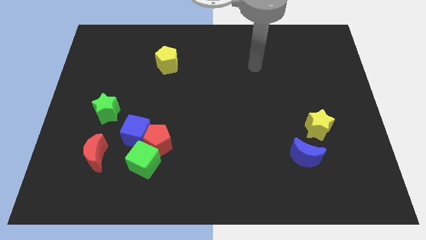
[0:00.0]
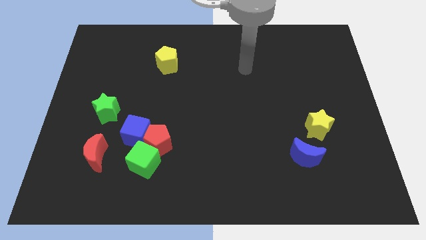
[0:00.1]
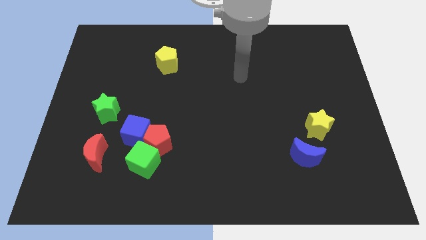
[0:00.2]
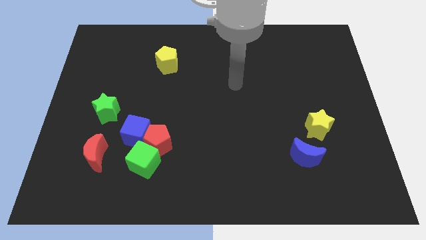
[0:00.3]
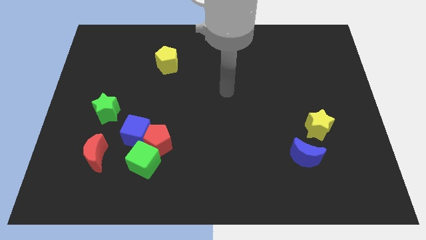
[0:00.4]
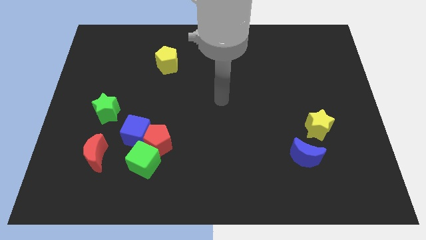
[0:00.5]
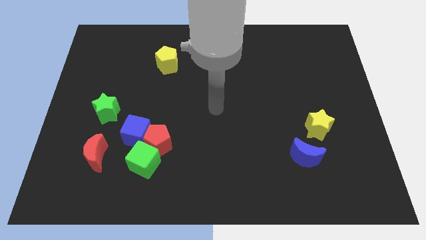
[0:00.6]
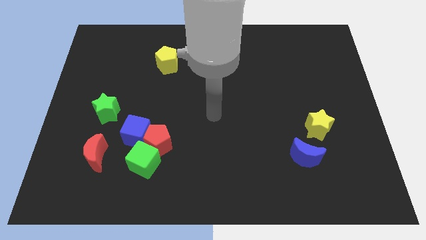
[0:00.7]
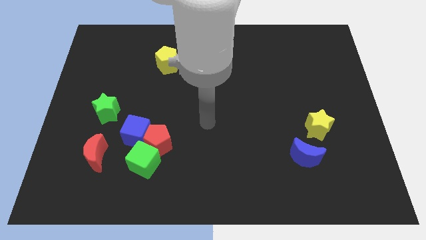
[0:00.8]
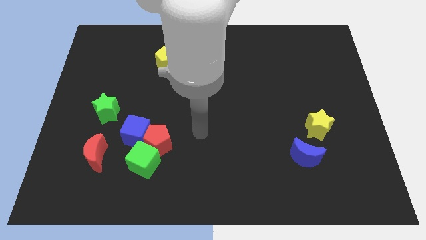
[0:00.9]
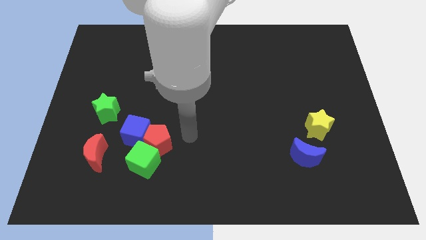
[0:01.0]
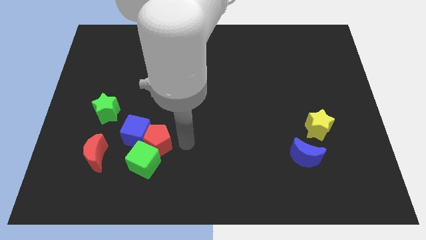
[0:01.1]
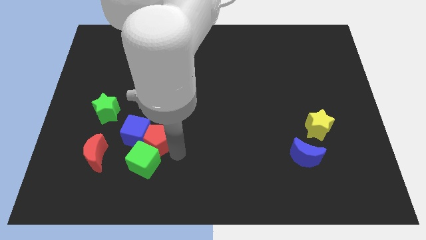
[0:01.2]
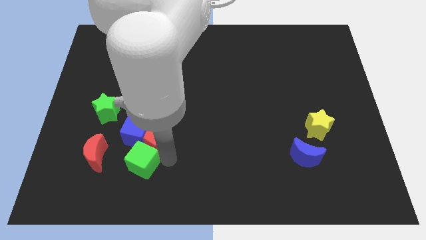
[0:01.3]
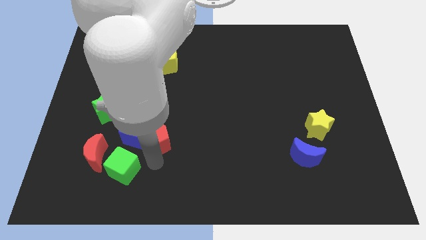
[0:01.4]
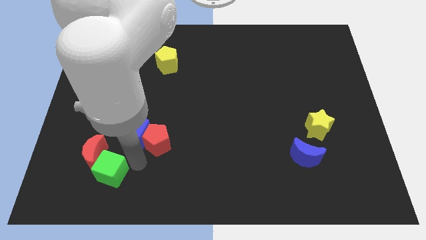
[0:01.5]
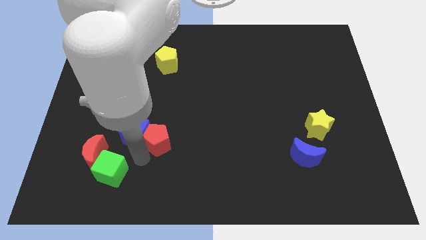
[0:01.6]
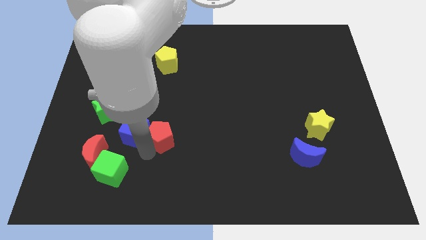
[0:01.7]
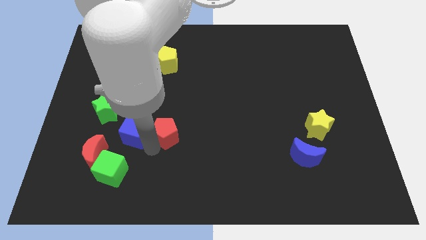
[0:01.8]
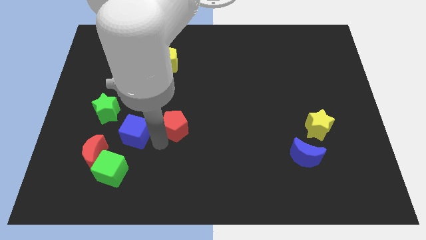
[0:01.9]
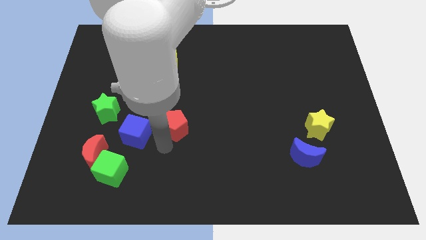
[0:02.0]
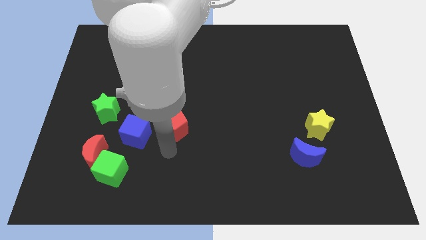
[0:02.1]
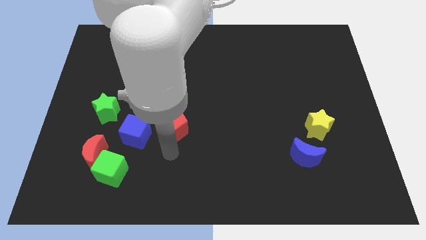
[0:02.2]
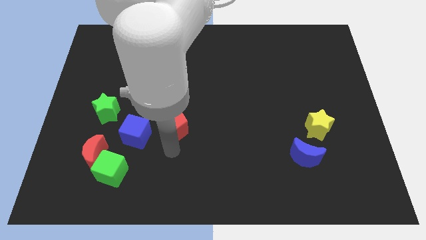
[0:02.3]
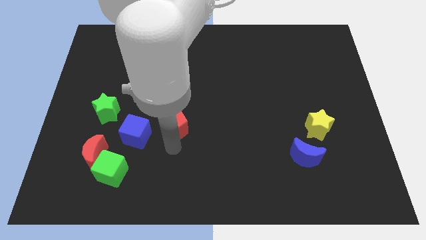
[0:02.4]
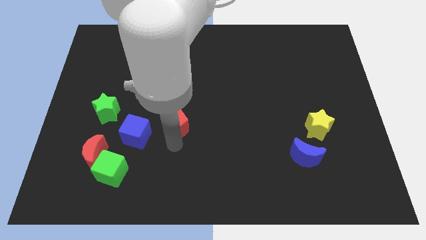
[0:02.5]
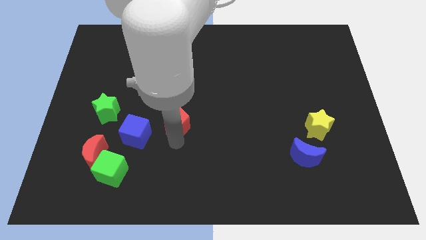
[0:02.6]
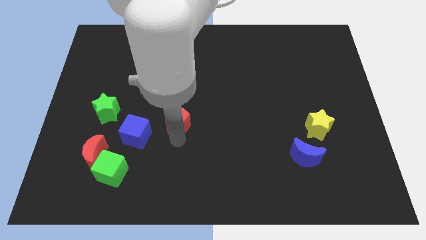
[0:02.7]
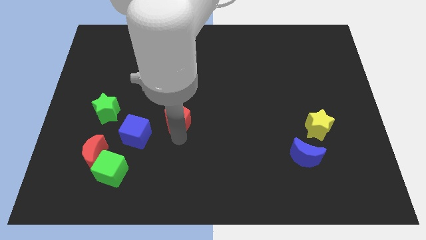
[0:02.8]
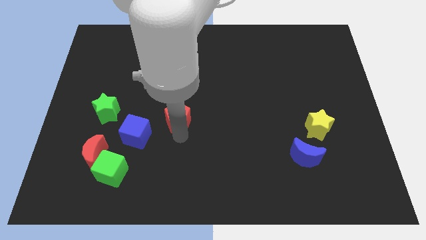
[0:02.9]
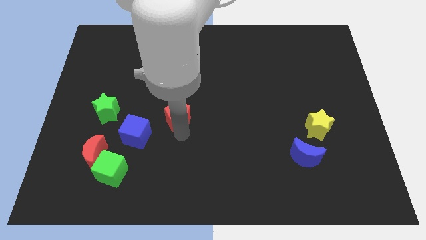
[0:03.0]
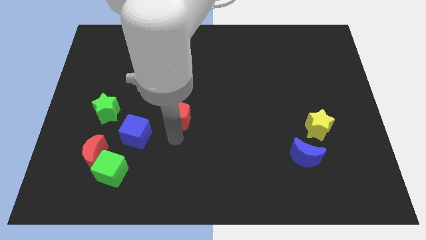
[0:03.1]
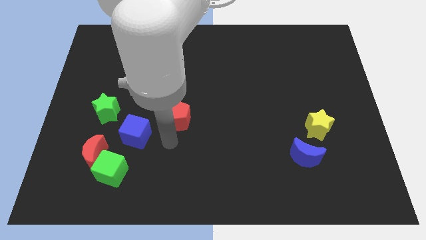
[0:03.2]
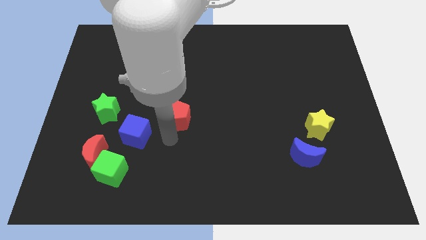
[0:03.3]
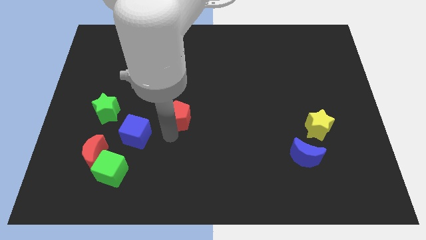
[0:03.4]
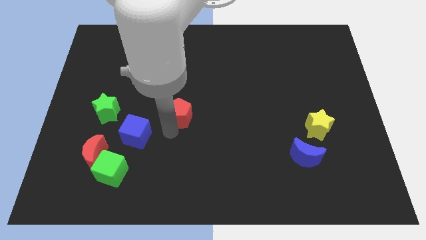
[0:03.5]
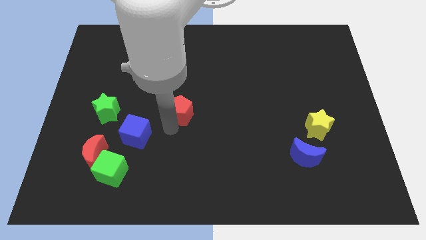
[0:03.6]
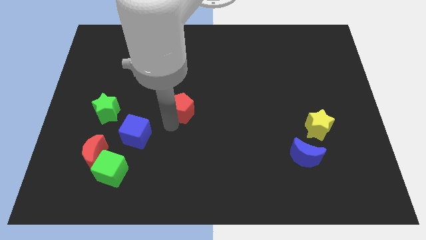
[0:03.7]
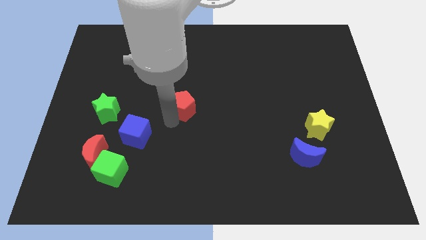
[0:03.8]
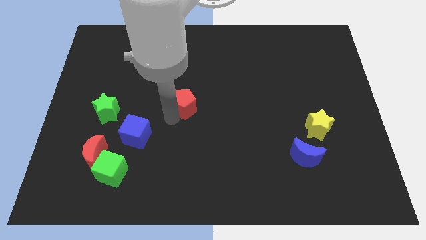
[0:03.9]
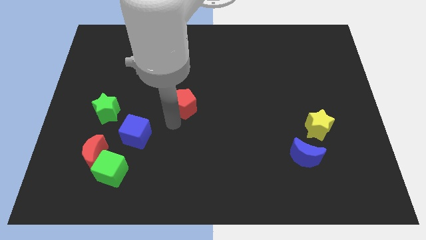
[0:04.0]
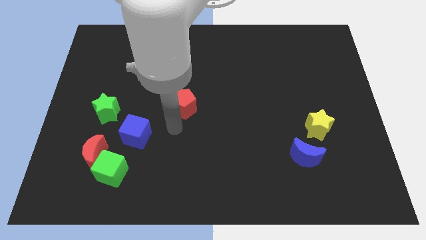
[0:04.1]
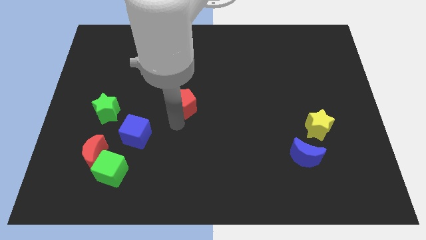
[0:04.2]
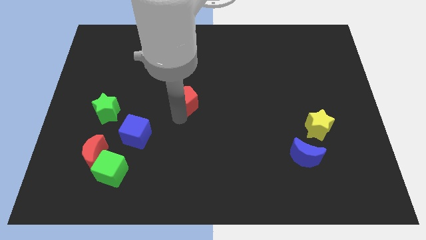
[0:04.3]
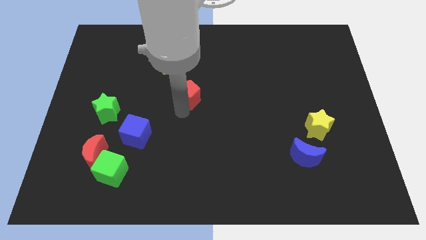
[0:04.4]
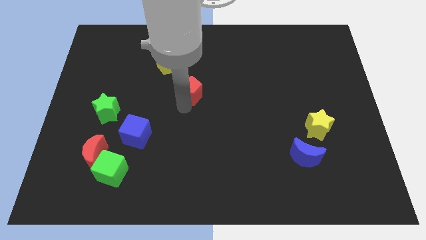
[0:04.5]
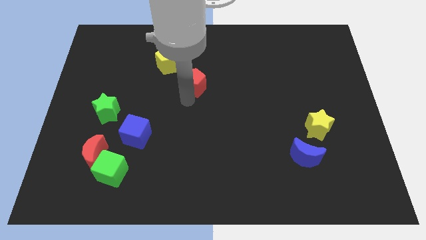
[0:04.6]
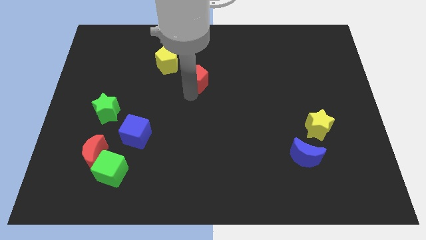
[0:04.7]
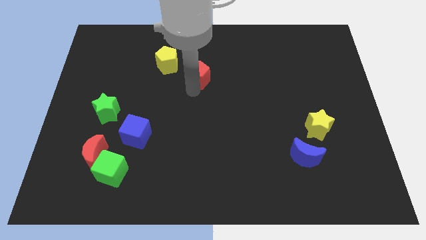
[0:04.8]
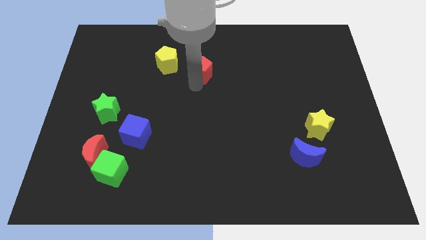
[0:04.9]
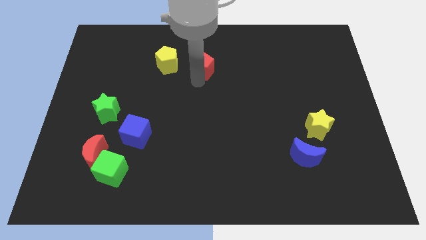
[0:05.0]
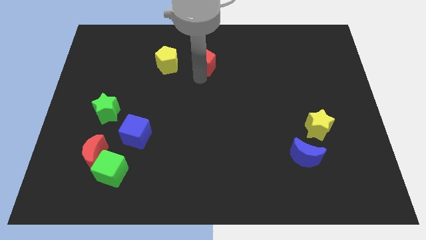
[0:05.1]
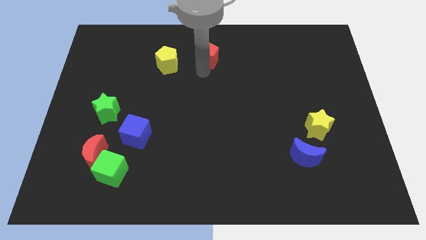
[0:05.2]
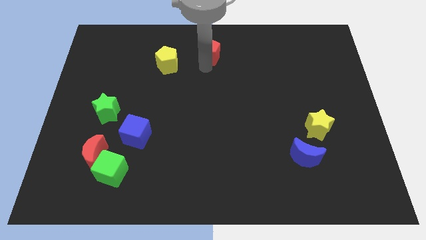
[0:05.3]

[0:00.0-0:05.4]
push the red pentagon to the towards your base

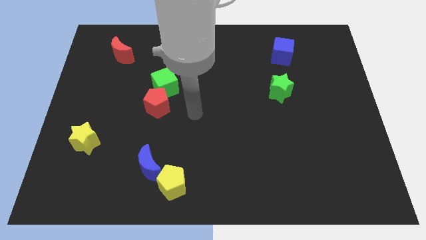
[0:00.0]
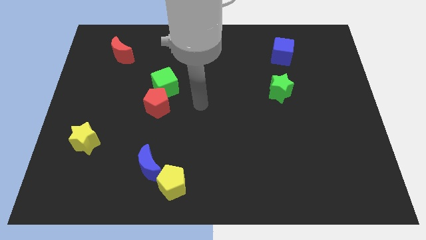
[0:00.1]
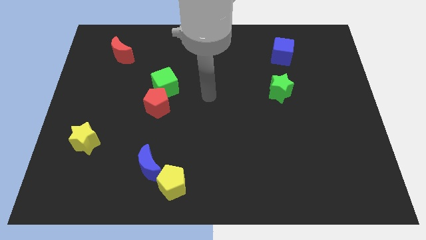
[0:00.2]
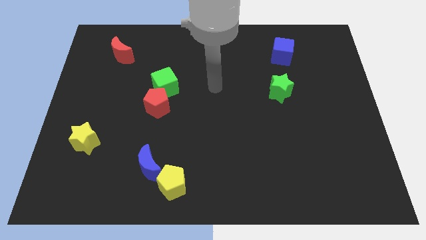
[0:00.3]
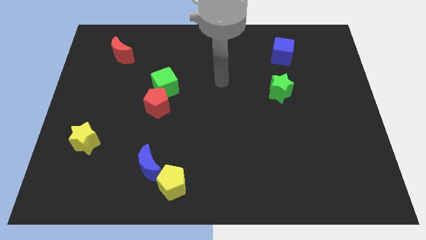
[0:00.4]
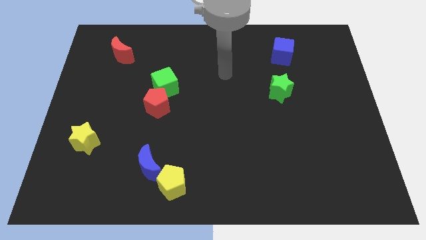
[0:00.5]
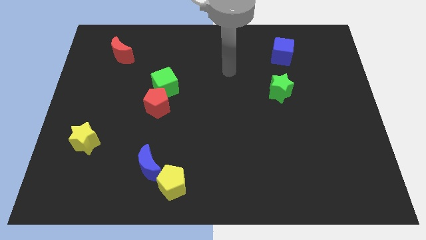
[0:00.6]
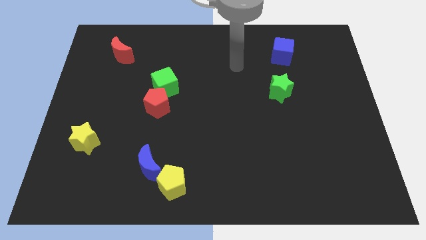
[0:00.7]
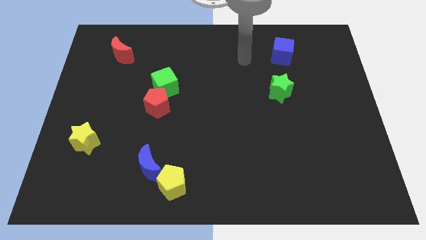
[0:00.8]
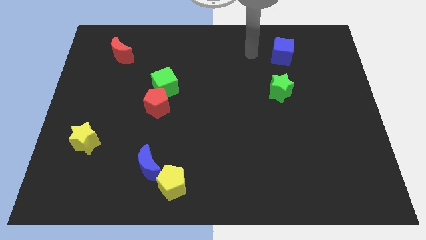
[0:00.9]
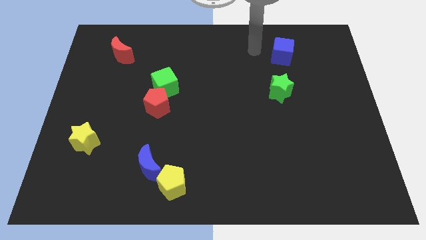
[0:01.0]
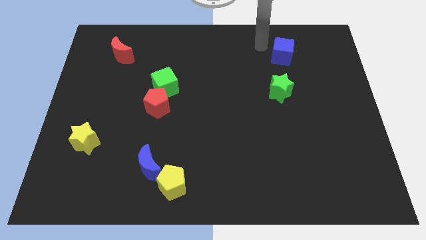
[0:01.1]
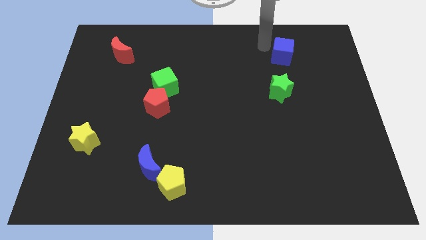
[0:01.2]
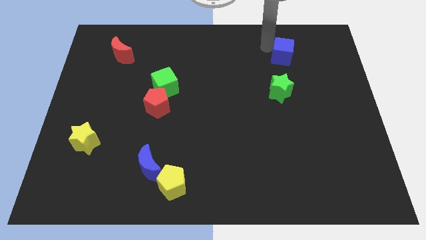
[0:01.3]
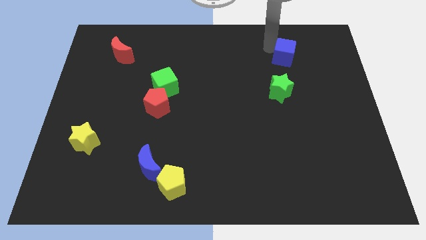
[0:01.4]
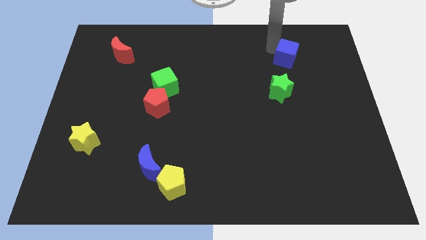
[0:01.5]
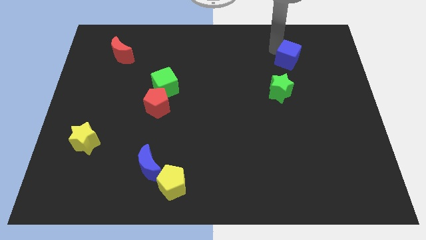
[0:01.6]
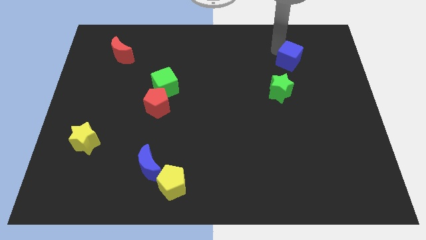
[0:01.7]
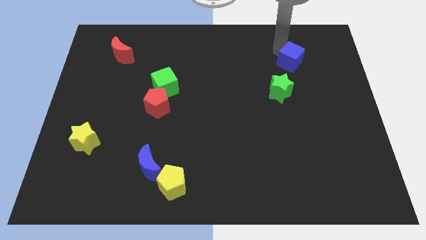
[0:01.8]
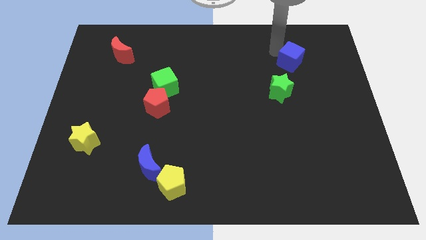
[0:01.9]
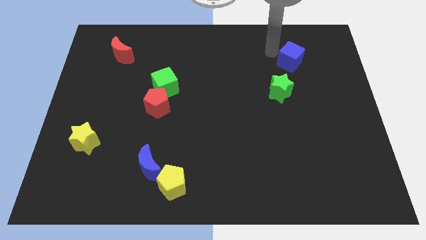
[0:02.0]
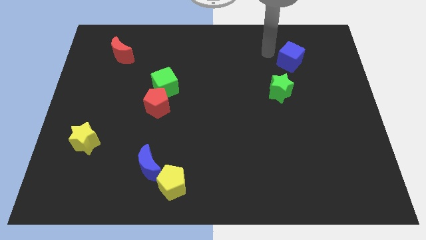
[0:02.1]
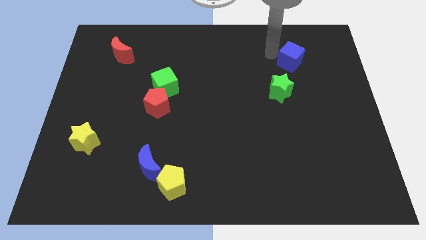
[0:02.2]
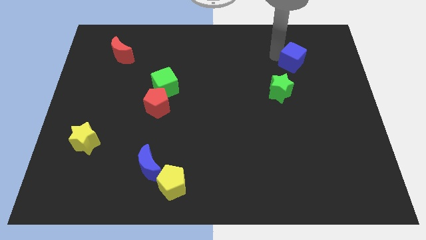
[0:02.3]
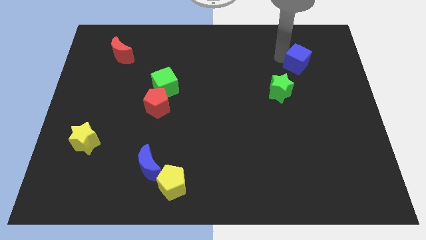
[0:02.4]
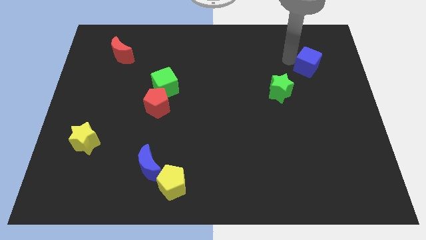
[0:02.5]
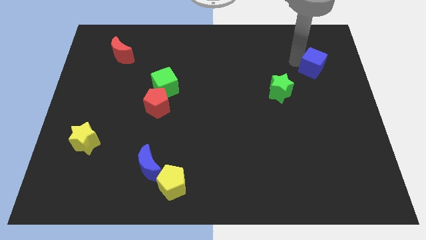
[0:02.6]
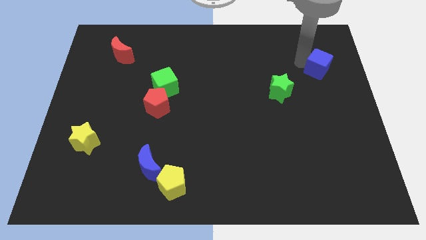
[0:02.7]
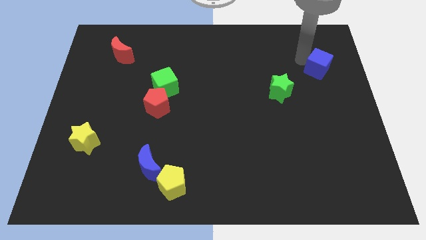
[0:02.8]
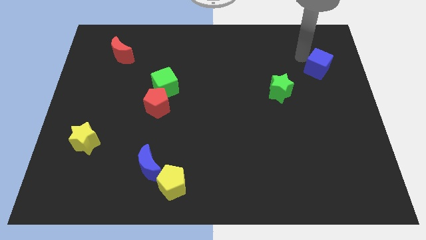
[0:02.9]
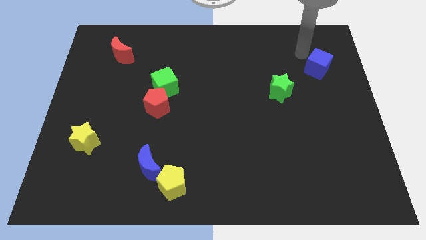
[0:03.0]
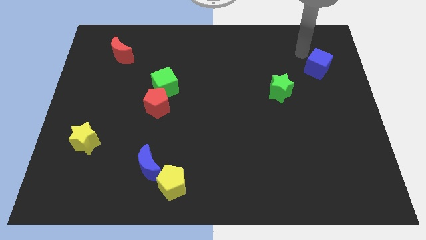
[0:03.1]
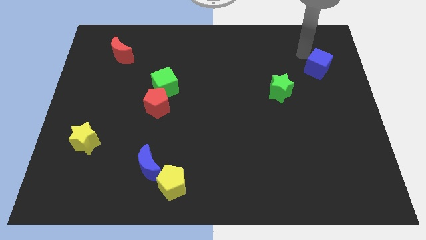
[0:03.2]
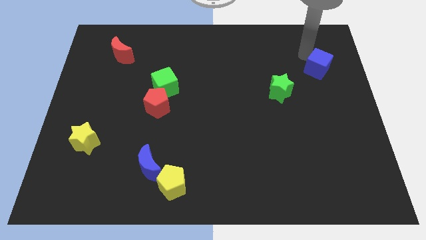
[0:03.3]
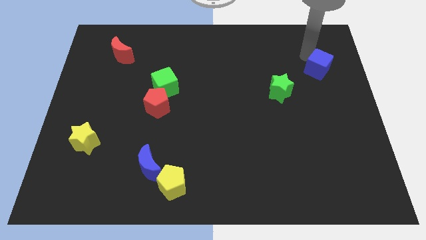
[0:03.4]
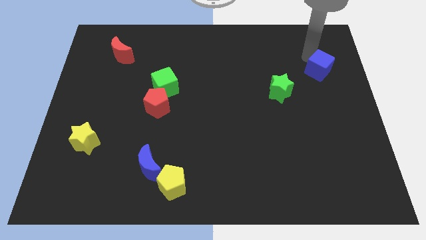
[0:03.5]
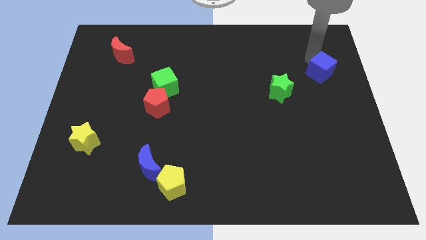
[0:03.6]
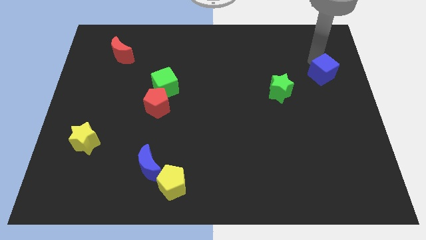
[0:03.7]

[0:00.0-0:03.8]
put the blue cube to the right side
